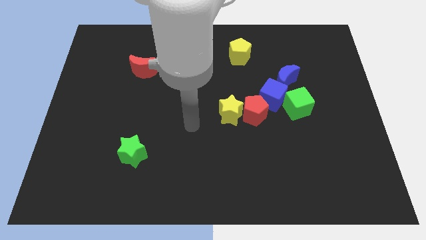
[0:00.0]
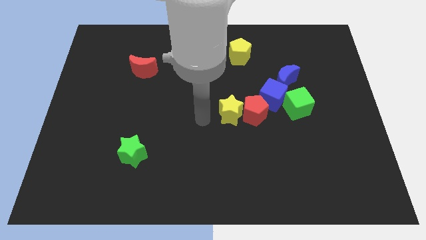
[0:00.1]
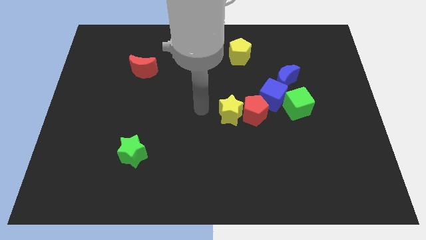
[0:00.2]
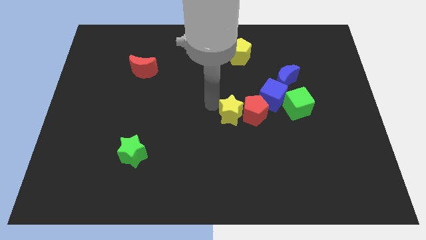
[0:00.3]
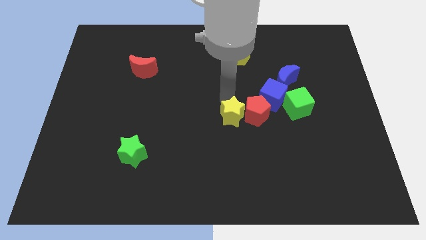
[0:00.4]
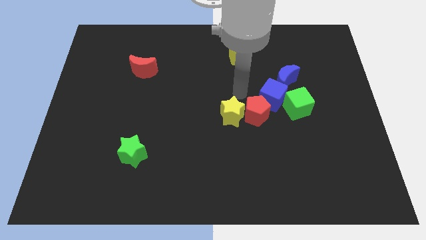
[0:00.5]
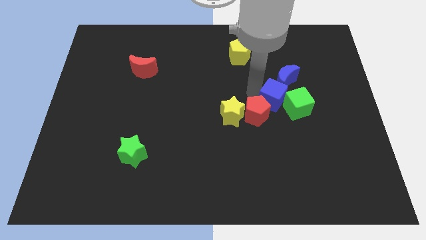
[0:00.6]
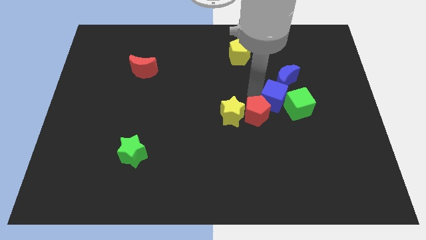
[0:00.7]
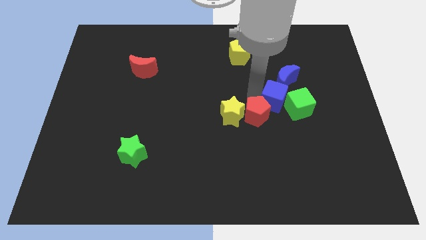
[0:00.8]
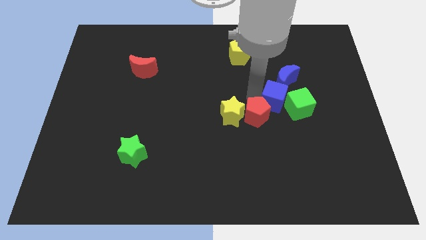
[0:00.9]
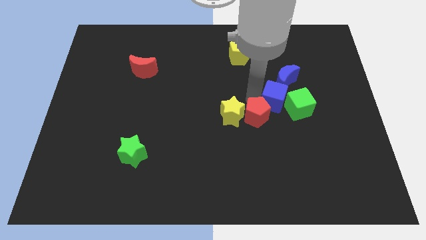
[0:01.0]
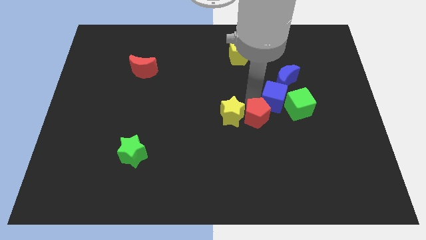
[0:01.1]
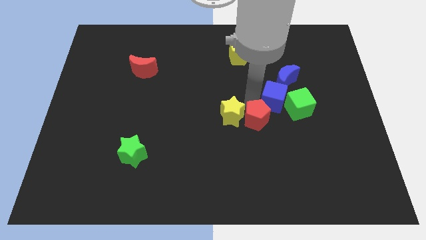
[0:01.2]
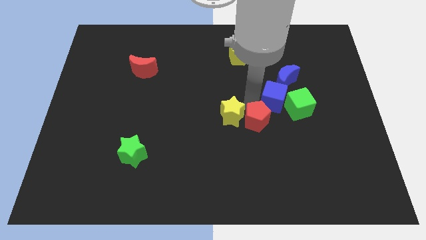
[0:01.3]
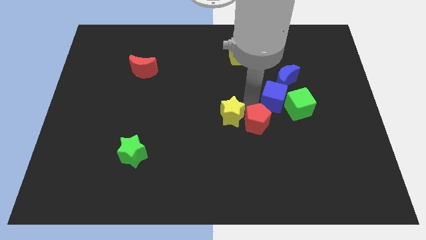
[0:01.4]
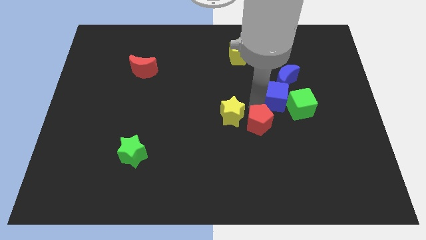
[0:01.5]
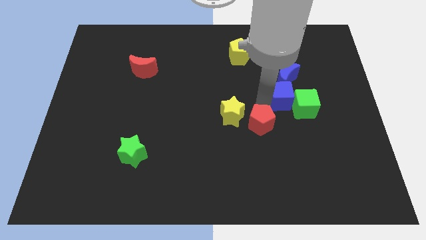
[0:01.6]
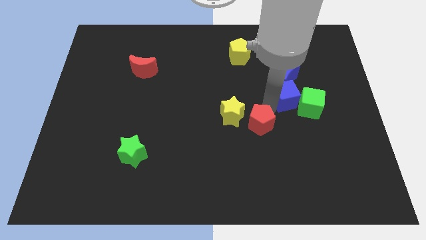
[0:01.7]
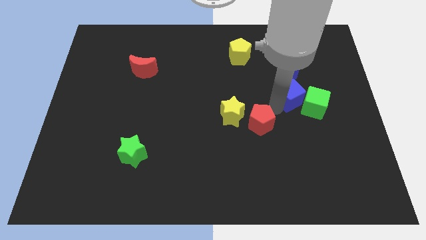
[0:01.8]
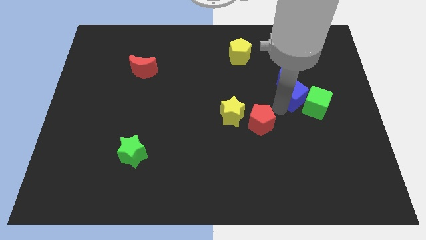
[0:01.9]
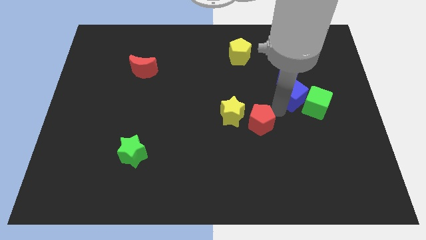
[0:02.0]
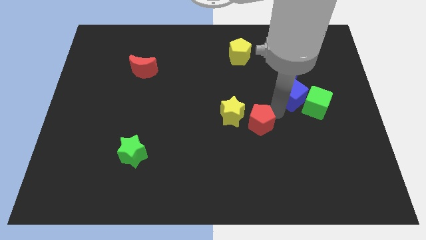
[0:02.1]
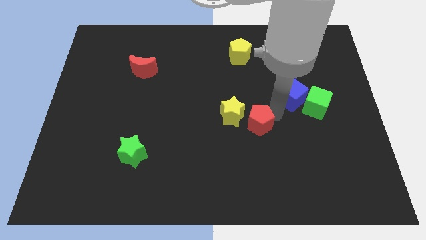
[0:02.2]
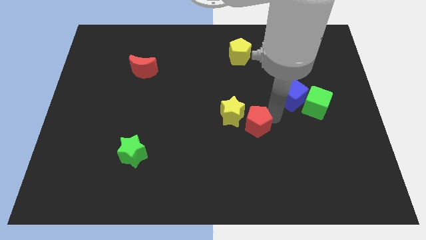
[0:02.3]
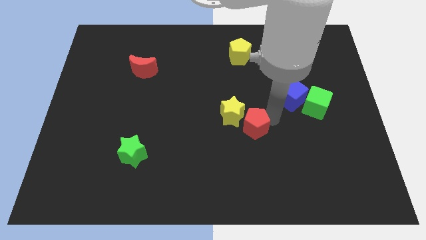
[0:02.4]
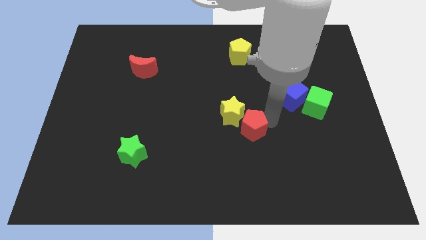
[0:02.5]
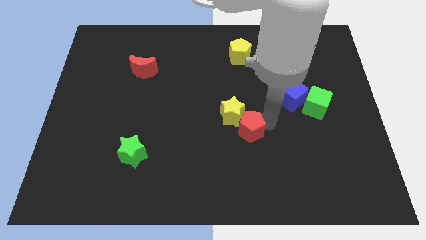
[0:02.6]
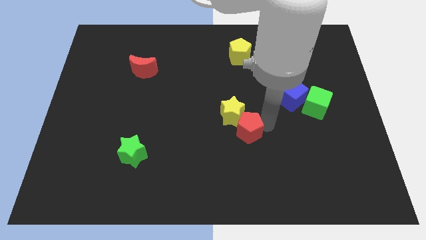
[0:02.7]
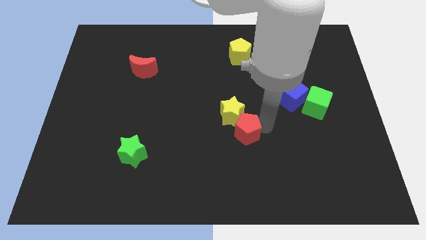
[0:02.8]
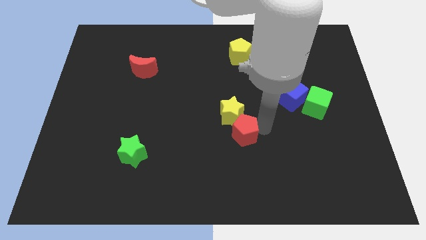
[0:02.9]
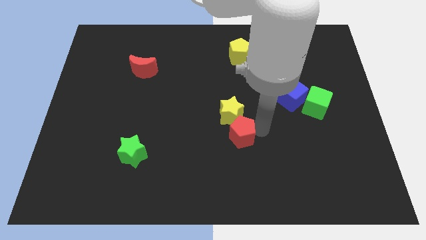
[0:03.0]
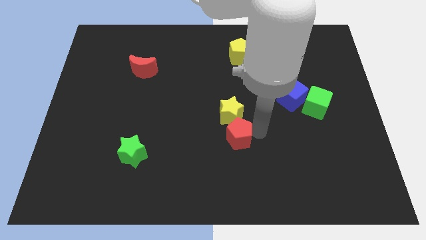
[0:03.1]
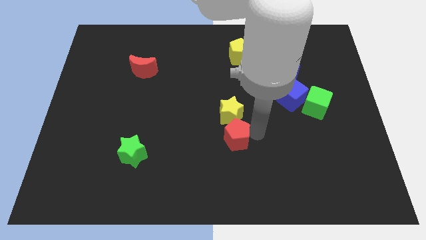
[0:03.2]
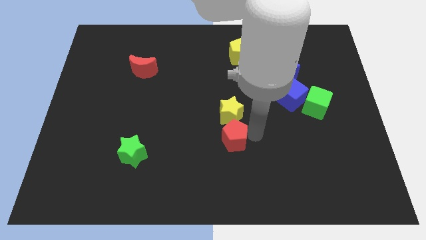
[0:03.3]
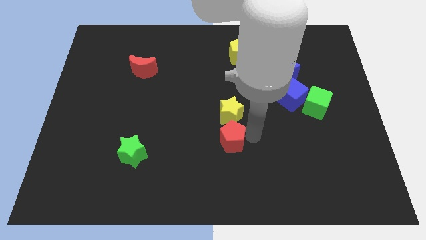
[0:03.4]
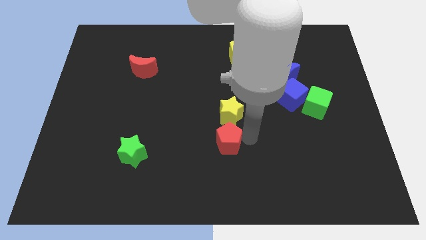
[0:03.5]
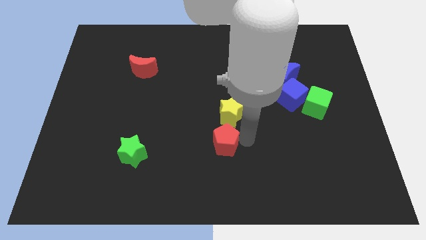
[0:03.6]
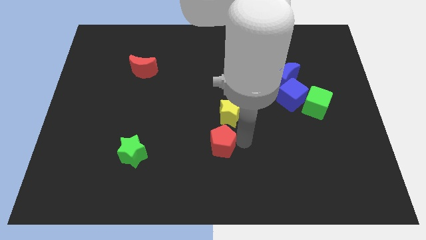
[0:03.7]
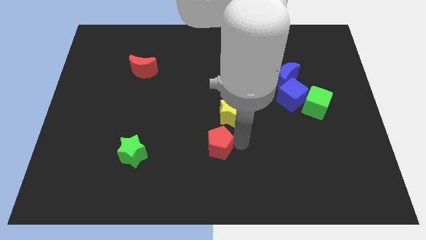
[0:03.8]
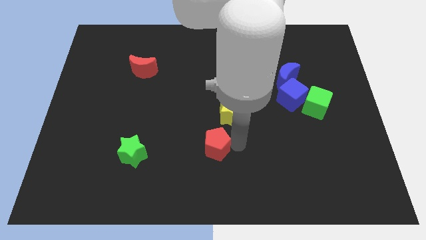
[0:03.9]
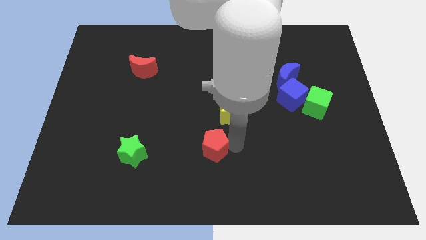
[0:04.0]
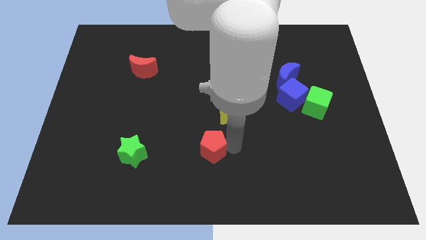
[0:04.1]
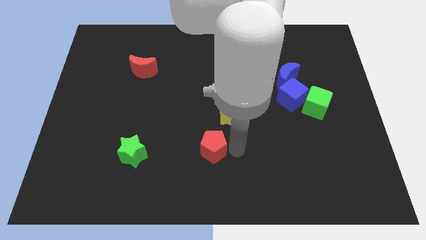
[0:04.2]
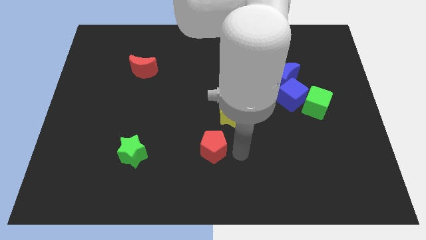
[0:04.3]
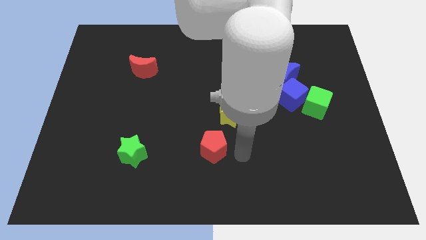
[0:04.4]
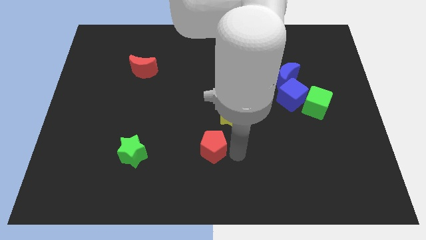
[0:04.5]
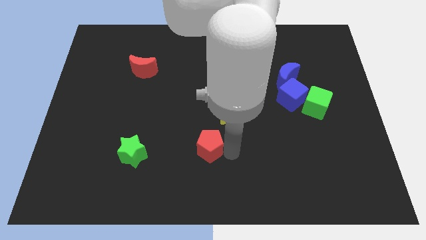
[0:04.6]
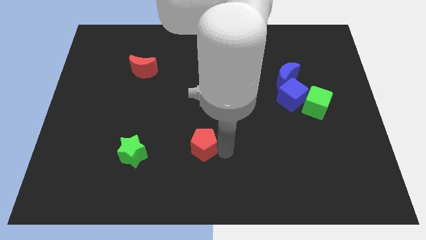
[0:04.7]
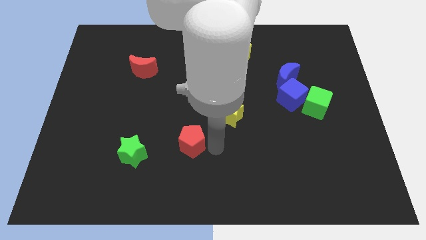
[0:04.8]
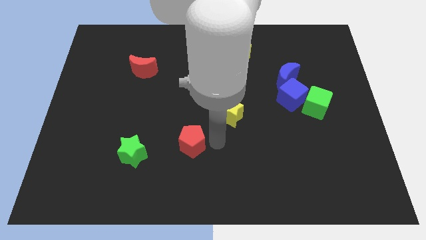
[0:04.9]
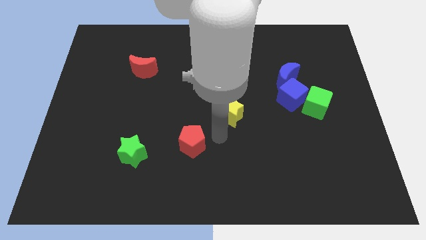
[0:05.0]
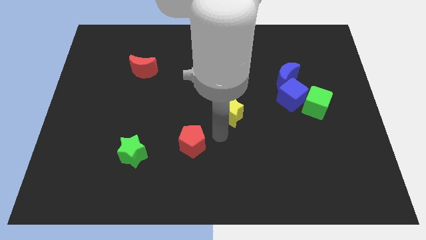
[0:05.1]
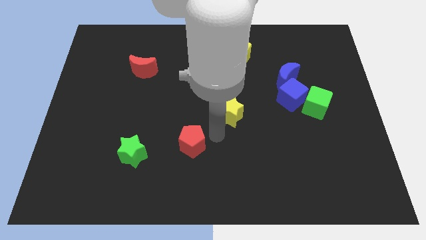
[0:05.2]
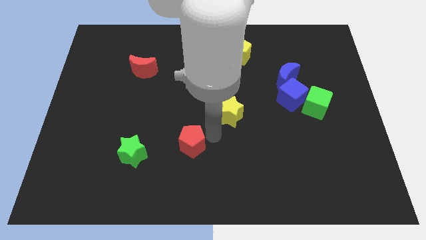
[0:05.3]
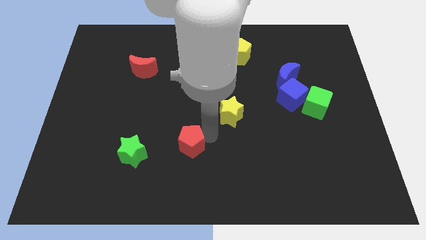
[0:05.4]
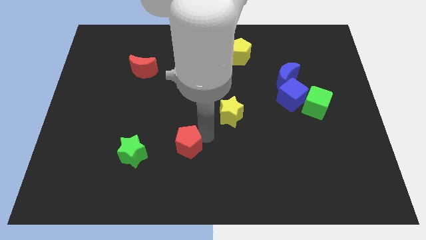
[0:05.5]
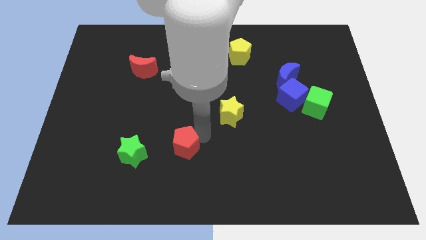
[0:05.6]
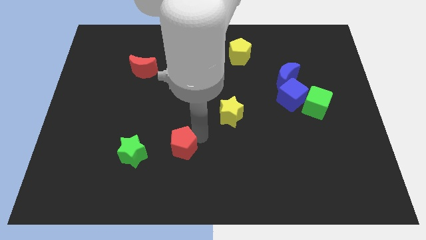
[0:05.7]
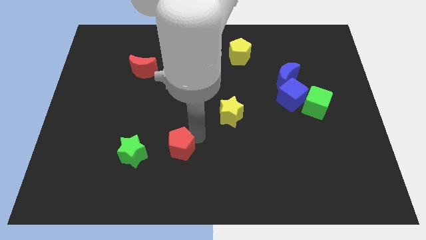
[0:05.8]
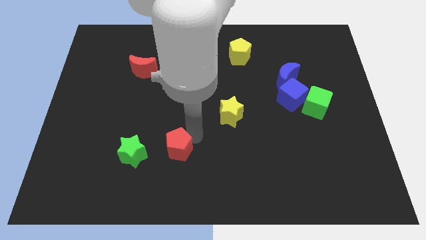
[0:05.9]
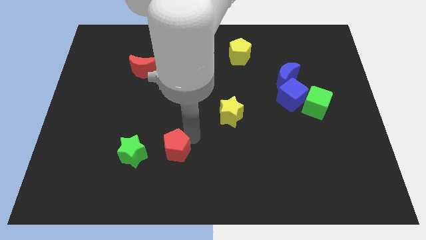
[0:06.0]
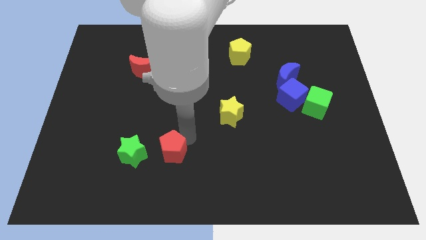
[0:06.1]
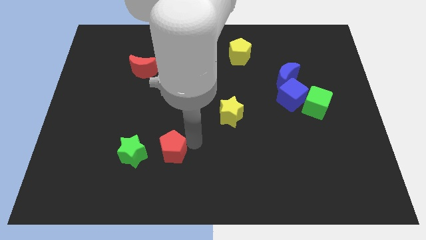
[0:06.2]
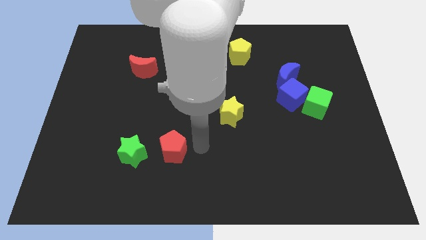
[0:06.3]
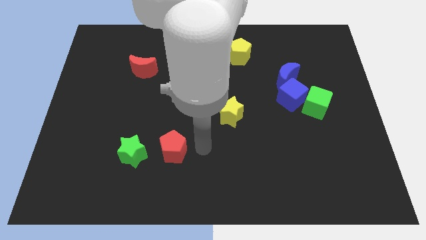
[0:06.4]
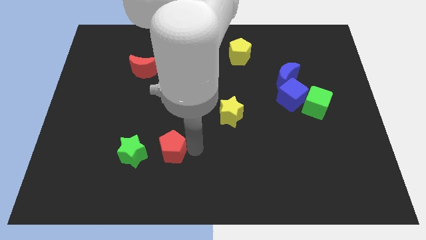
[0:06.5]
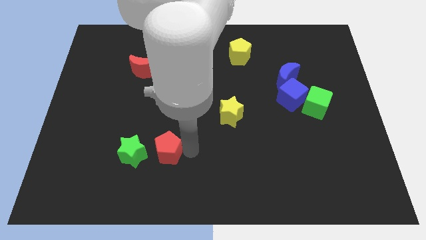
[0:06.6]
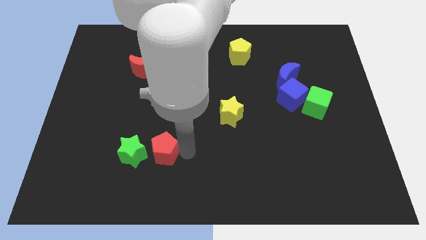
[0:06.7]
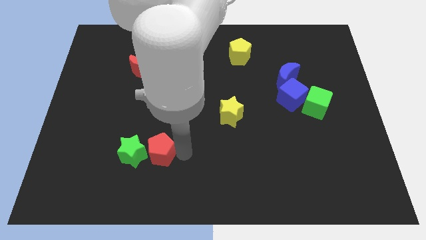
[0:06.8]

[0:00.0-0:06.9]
slide the red pentagon close to the green star

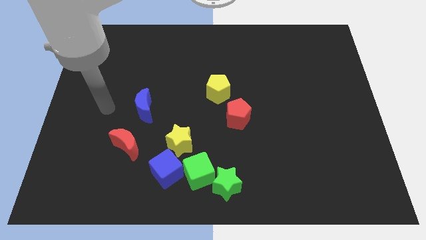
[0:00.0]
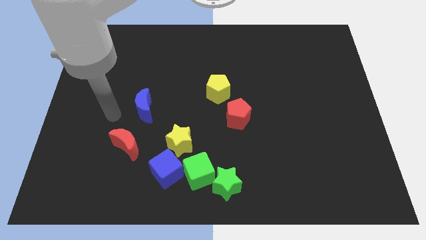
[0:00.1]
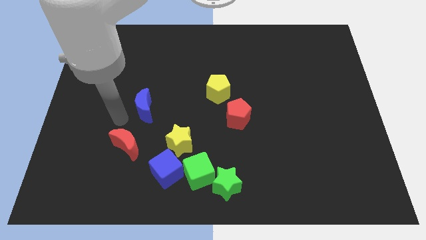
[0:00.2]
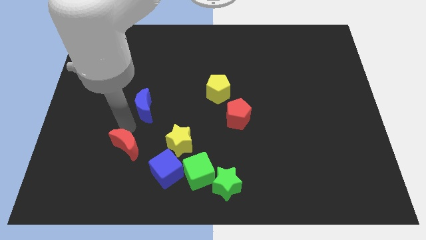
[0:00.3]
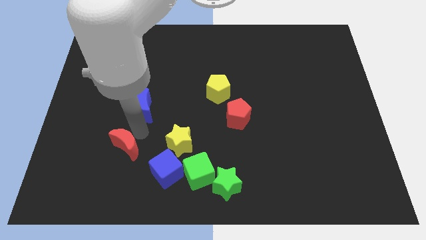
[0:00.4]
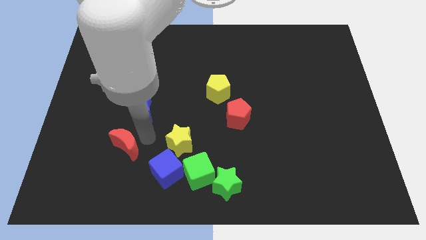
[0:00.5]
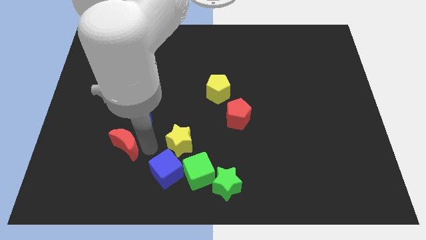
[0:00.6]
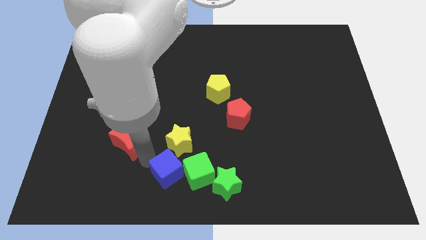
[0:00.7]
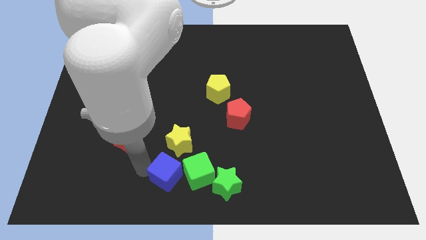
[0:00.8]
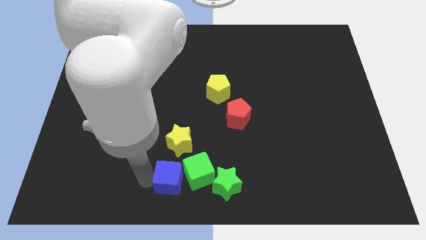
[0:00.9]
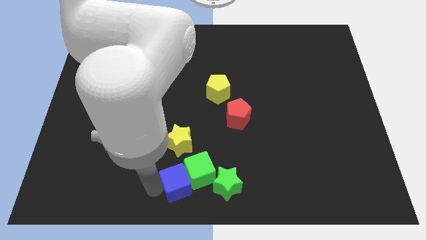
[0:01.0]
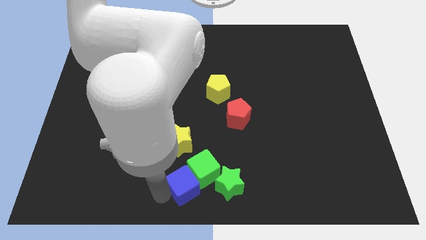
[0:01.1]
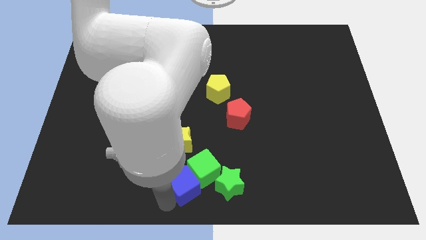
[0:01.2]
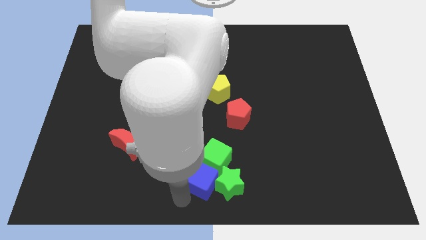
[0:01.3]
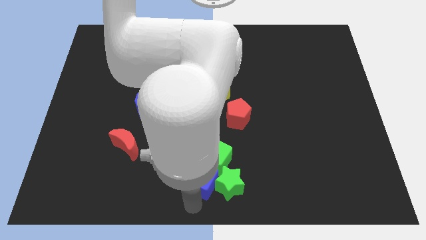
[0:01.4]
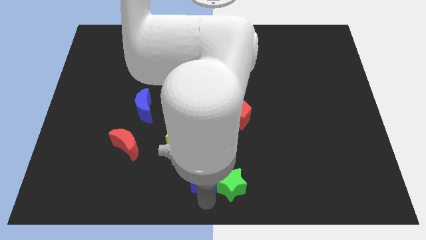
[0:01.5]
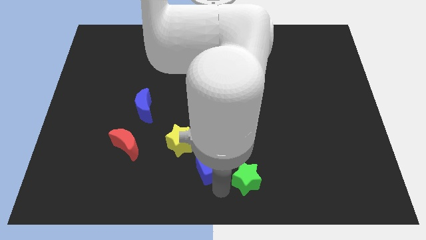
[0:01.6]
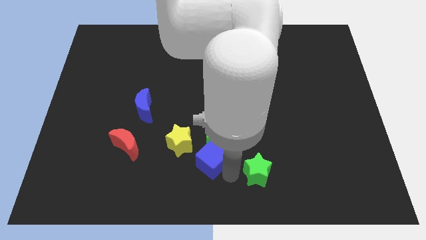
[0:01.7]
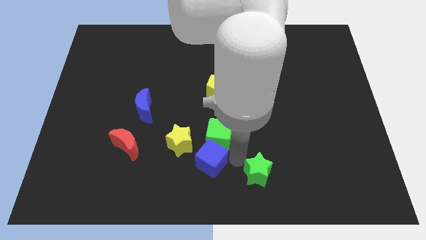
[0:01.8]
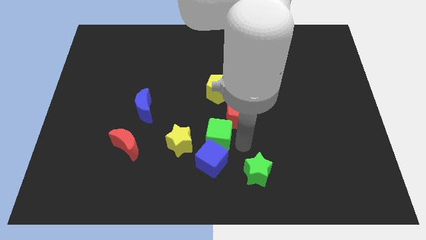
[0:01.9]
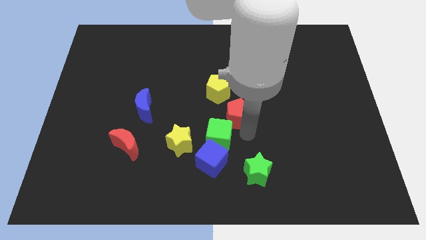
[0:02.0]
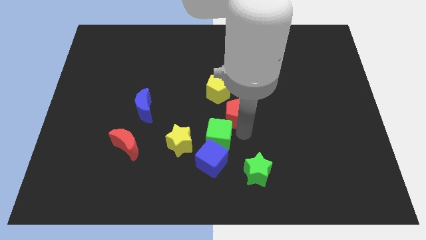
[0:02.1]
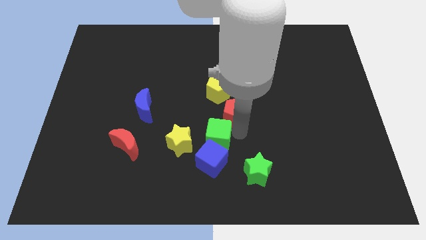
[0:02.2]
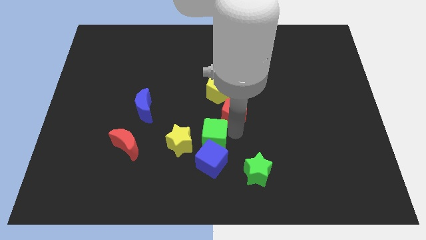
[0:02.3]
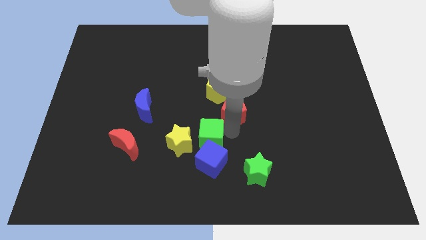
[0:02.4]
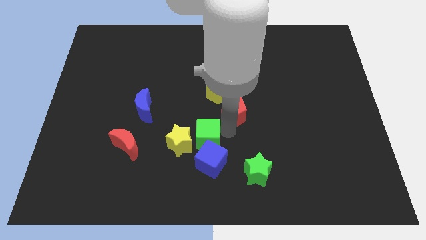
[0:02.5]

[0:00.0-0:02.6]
slide the green cube close to the yellow star
